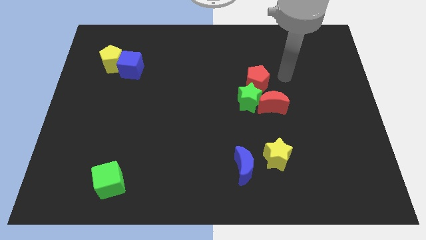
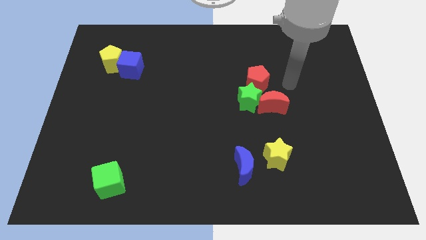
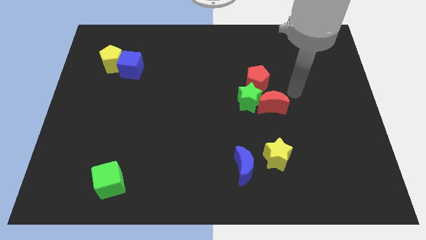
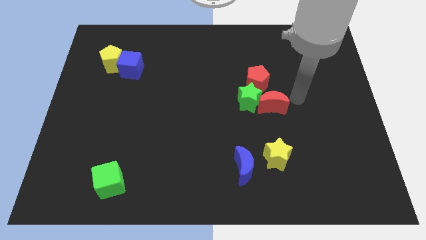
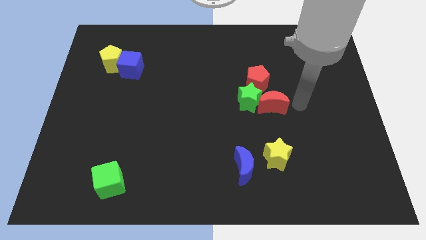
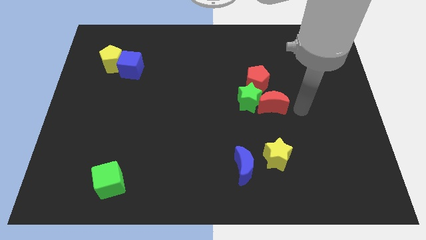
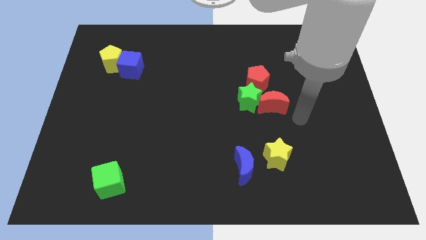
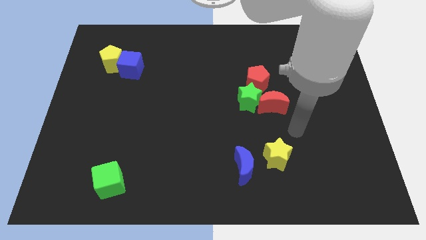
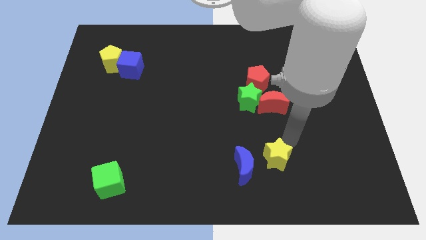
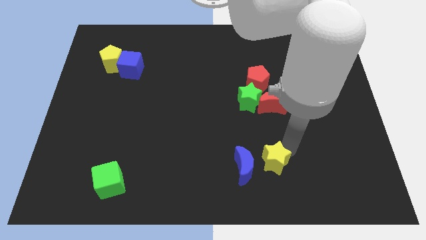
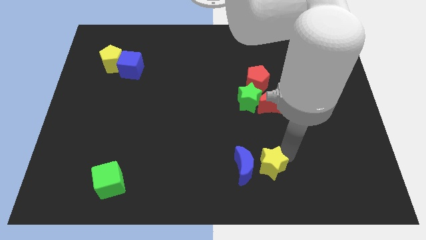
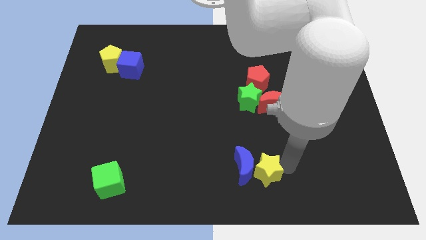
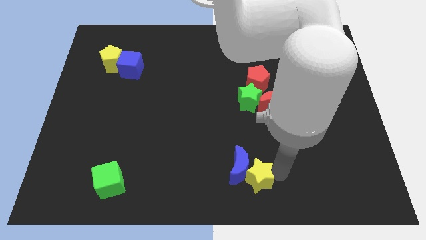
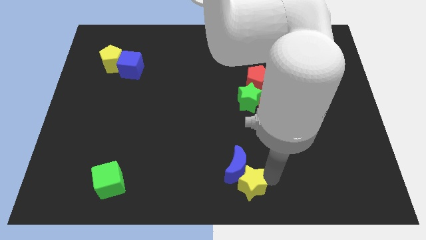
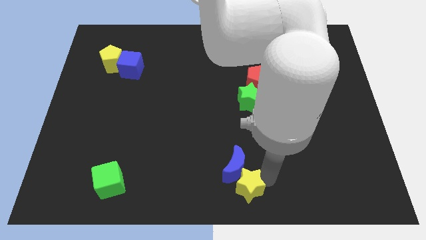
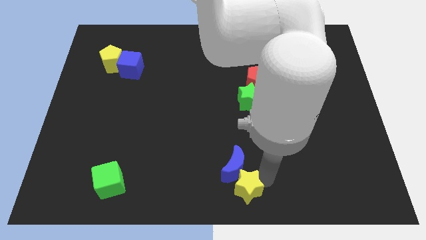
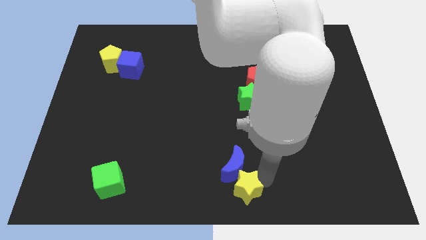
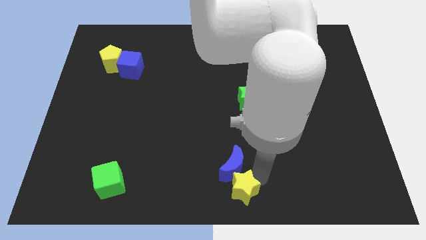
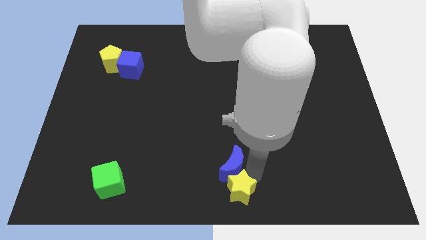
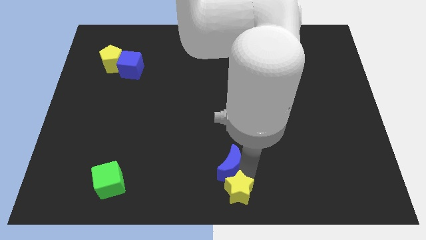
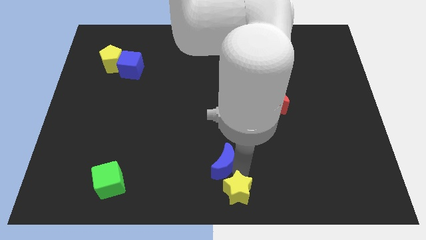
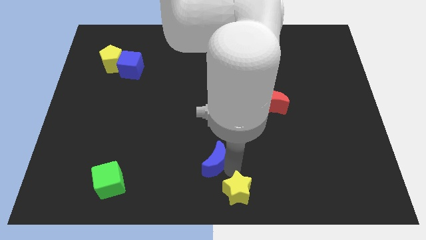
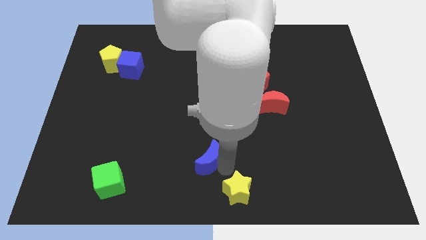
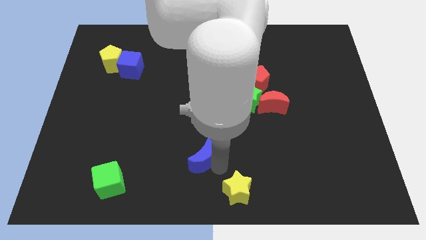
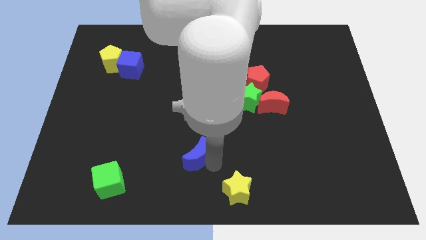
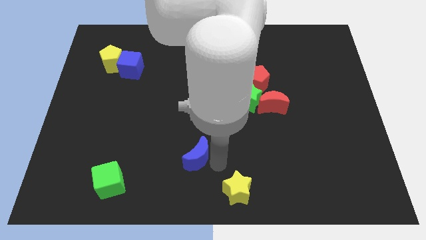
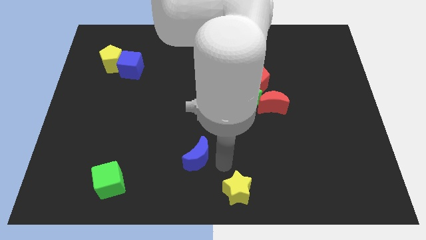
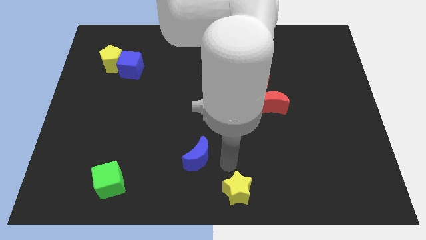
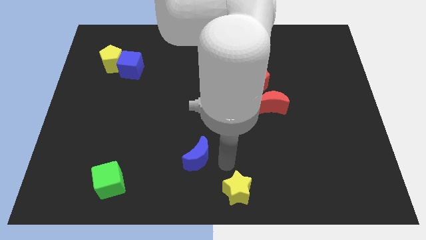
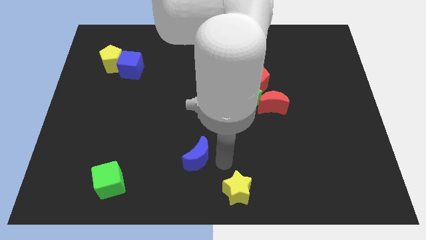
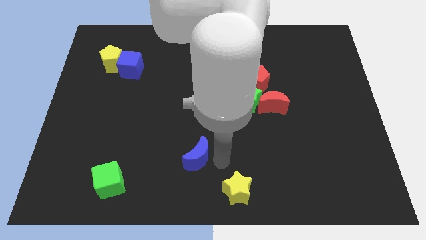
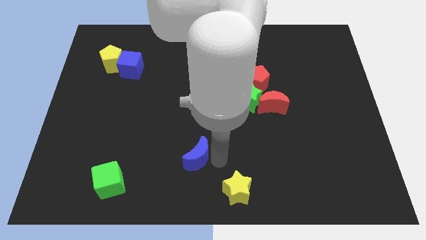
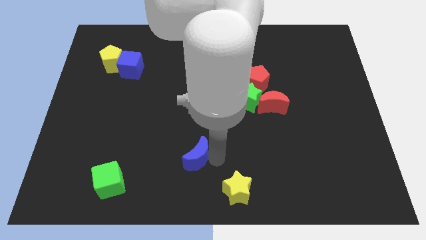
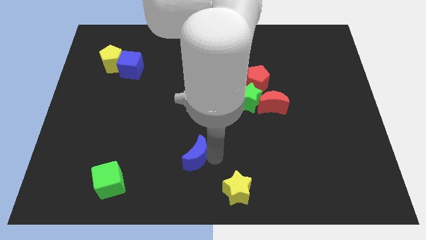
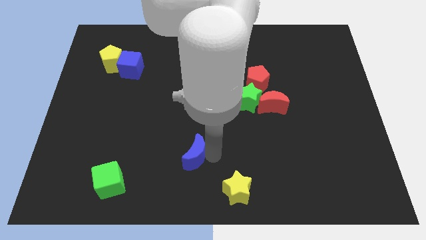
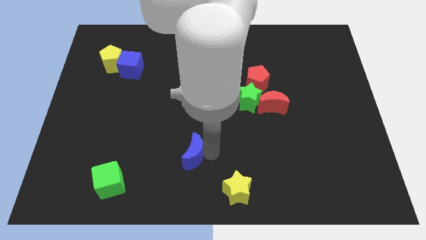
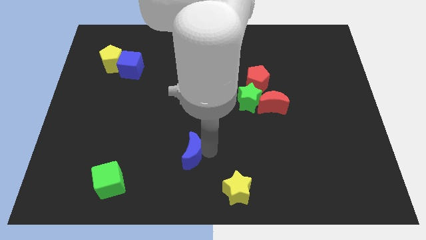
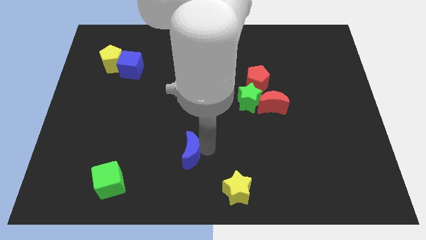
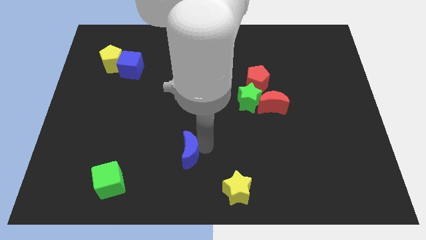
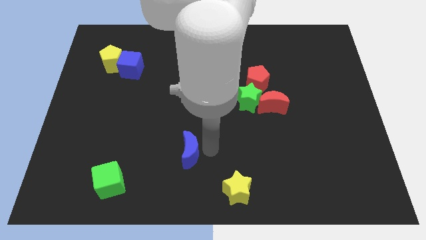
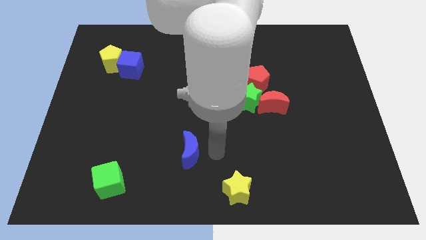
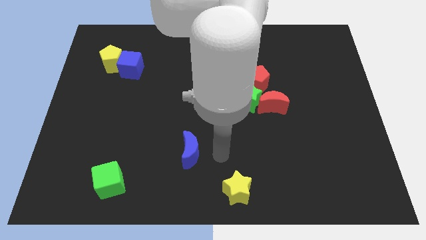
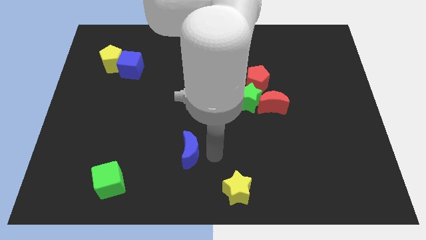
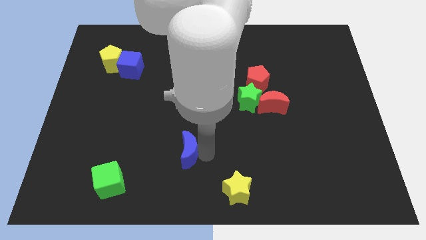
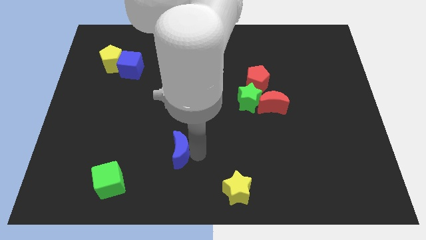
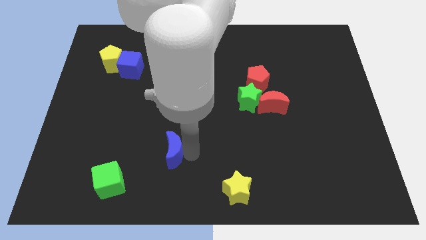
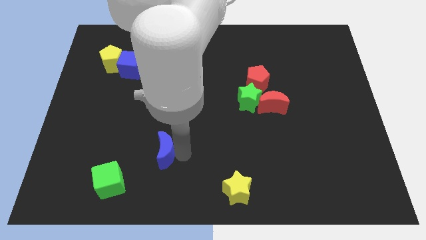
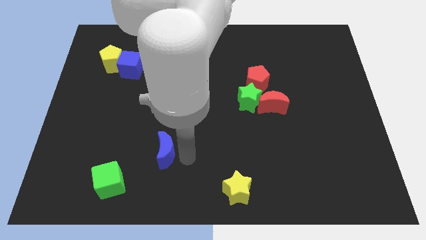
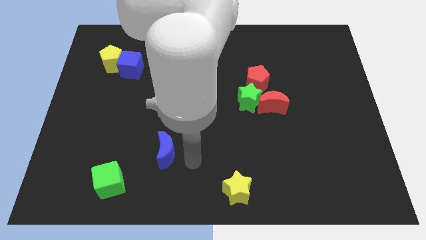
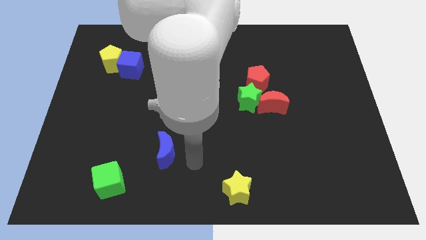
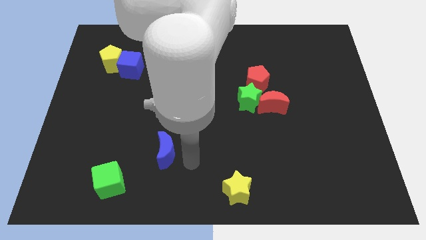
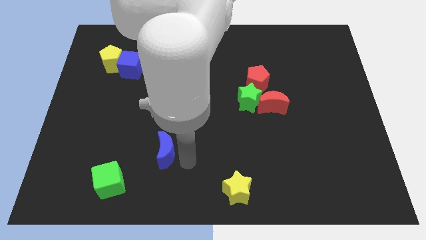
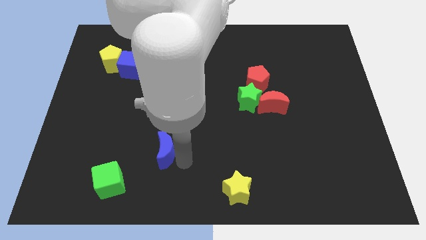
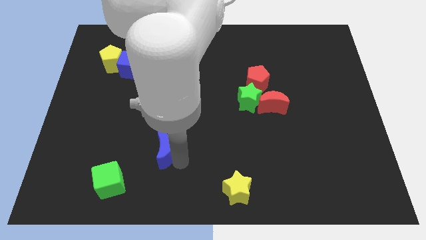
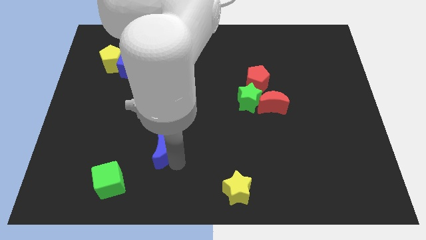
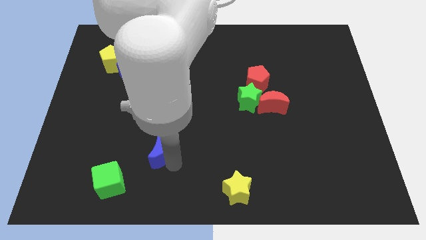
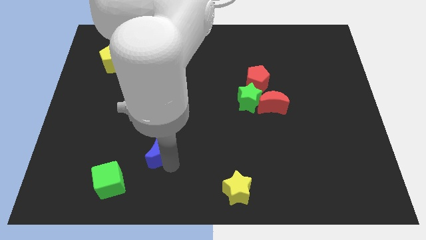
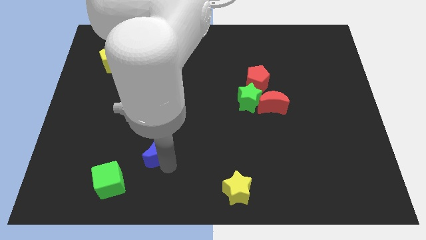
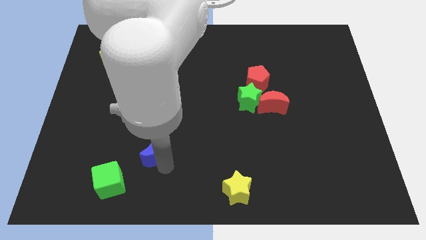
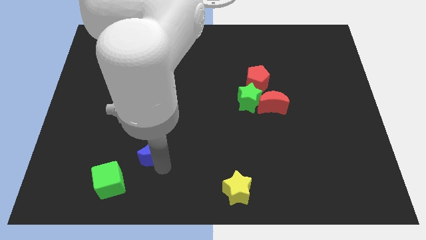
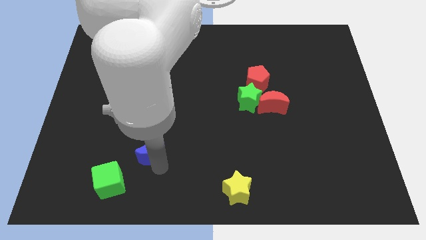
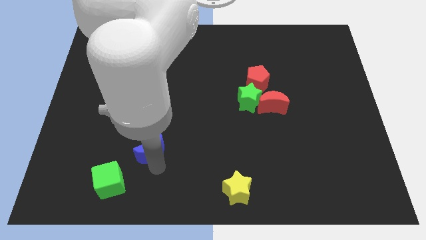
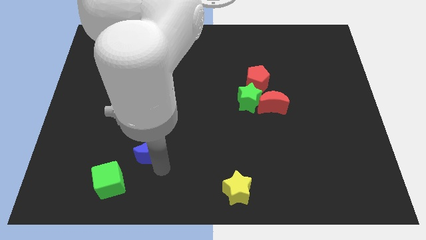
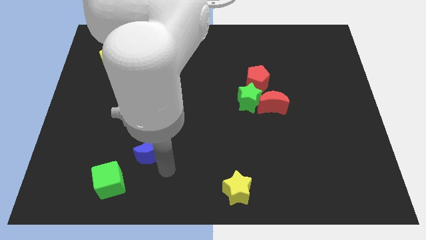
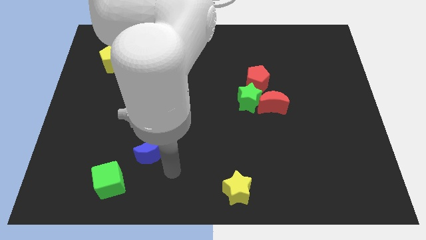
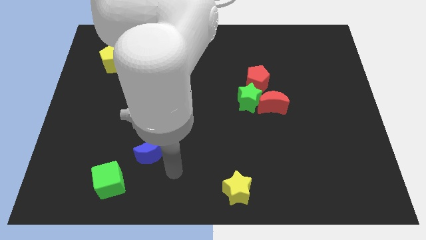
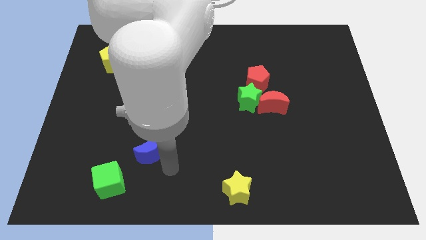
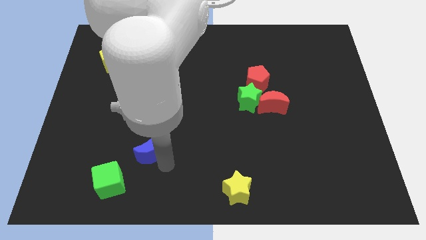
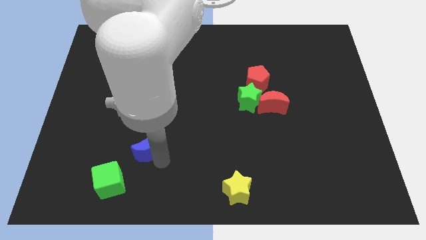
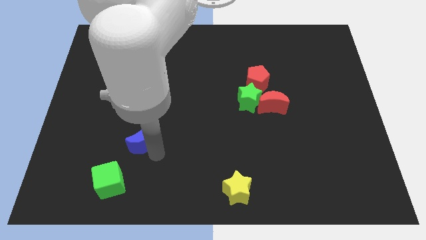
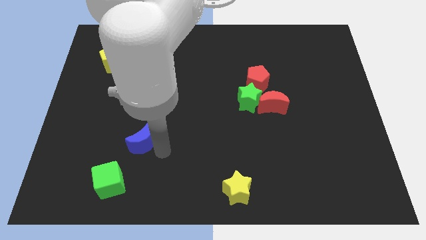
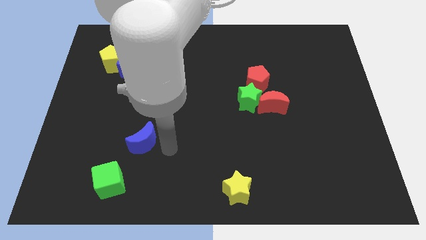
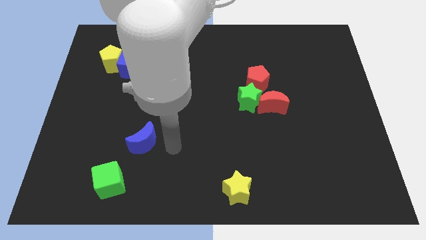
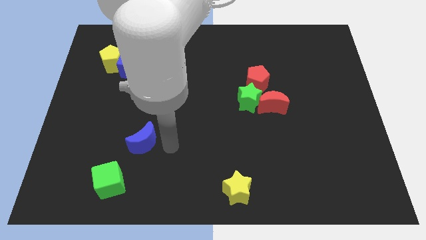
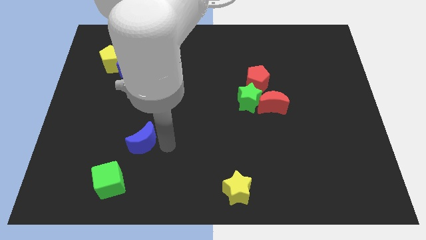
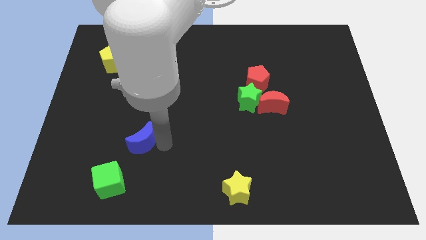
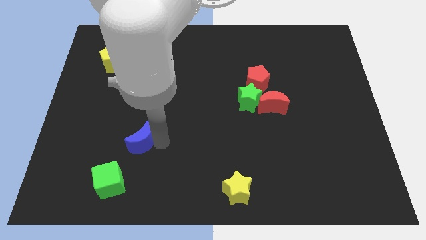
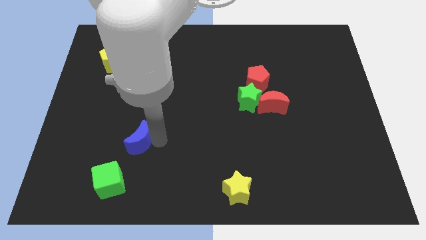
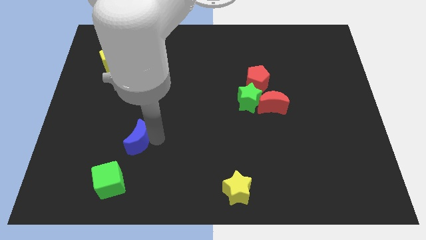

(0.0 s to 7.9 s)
put the blue moon to the top of the green cube
